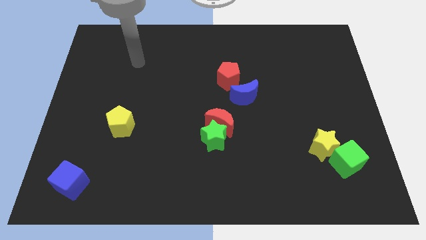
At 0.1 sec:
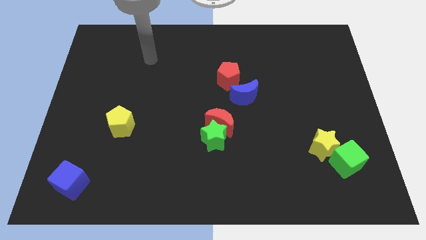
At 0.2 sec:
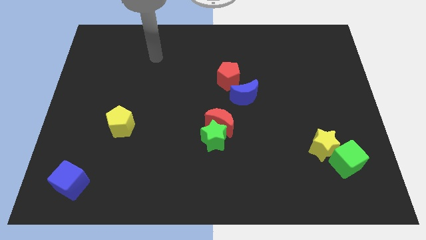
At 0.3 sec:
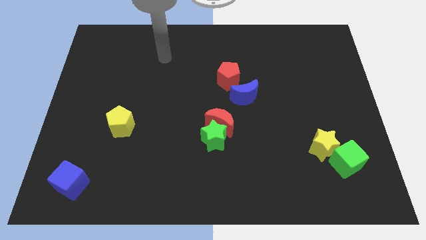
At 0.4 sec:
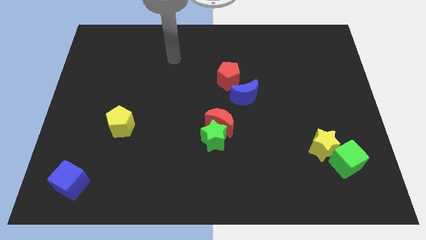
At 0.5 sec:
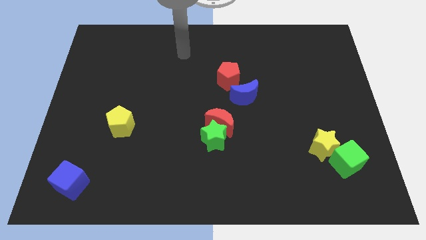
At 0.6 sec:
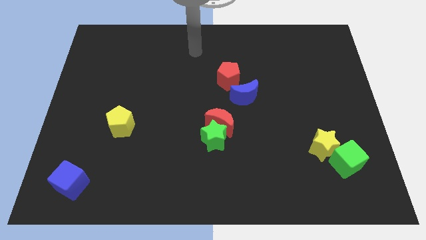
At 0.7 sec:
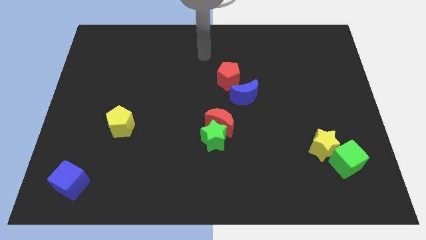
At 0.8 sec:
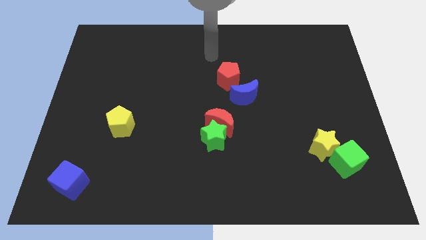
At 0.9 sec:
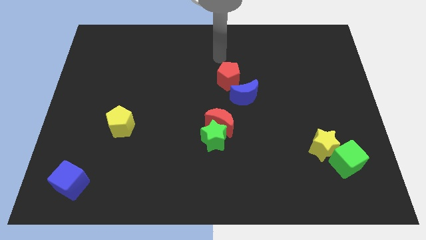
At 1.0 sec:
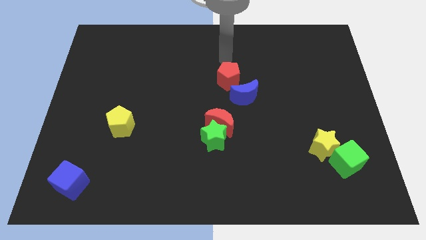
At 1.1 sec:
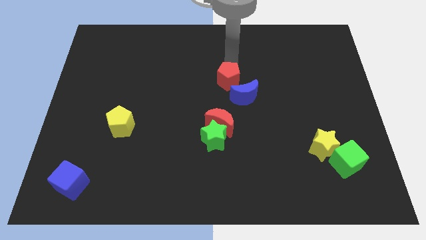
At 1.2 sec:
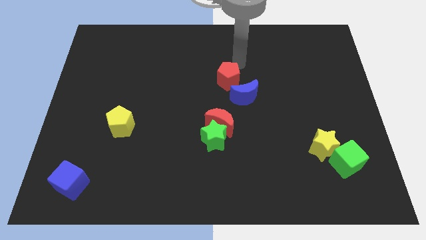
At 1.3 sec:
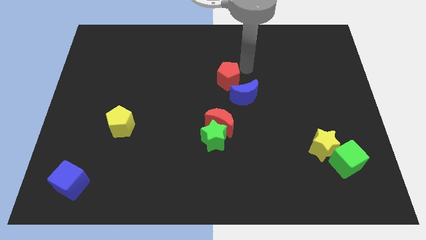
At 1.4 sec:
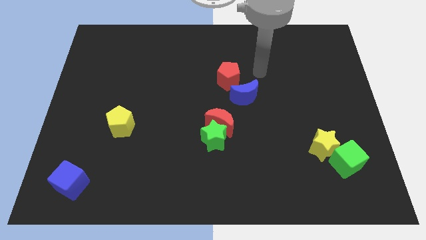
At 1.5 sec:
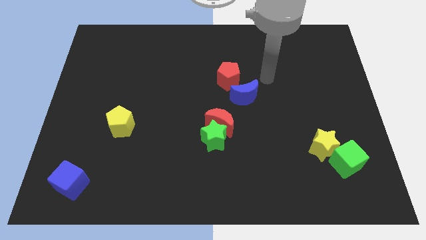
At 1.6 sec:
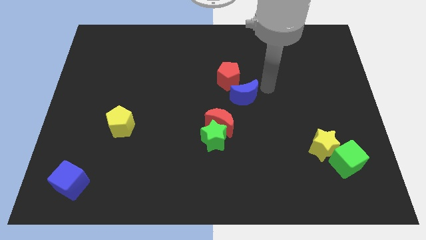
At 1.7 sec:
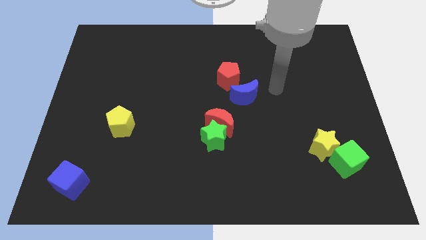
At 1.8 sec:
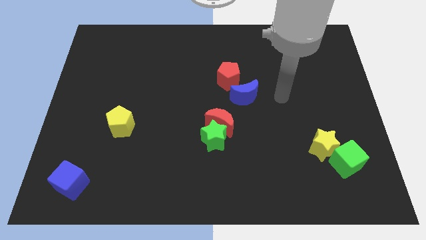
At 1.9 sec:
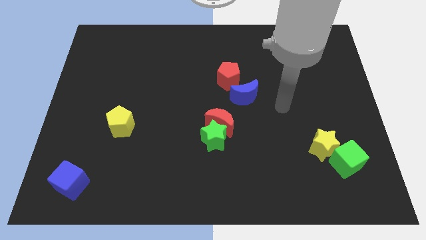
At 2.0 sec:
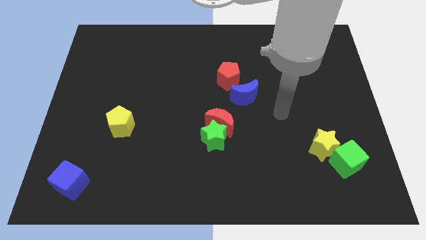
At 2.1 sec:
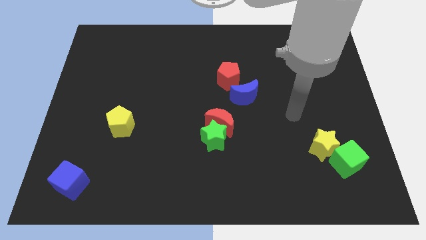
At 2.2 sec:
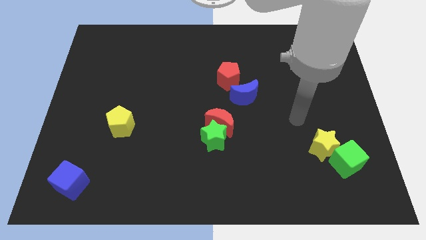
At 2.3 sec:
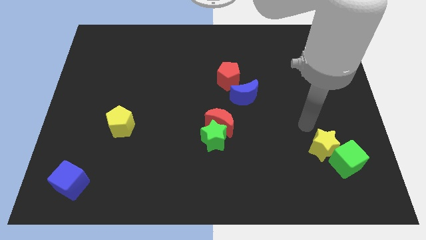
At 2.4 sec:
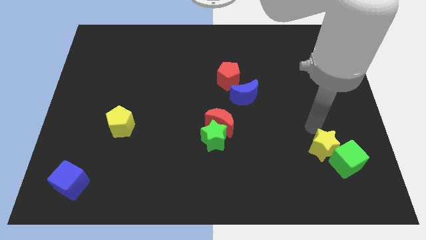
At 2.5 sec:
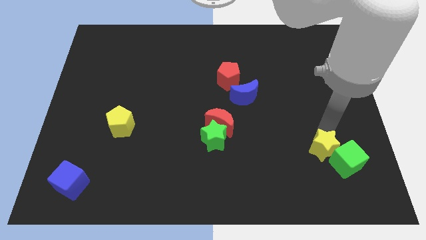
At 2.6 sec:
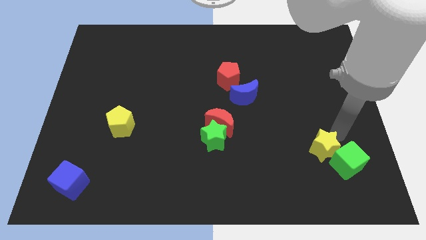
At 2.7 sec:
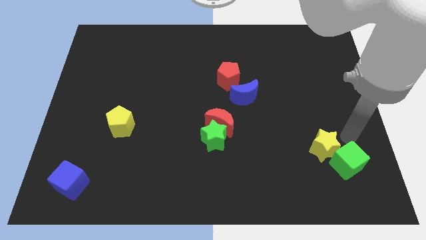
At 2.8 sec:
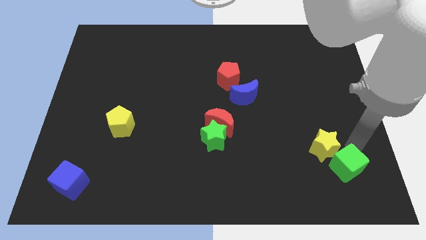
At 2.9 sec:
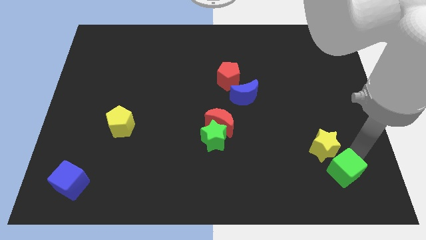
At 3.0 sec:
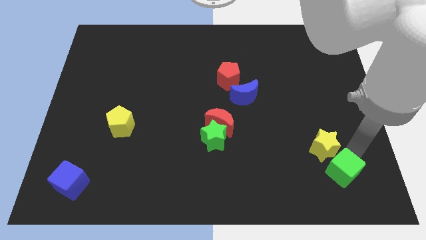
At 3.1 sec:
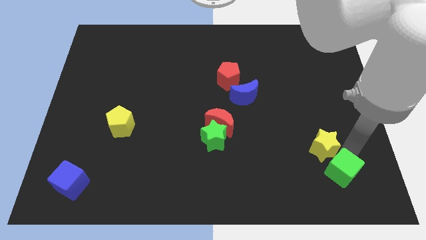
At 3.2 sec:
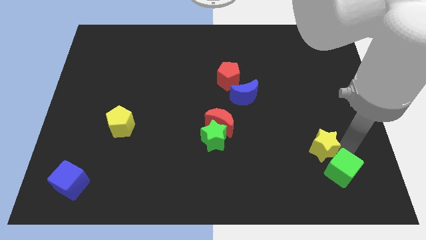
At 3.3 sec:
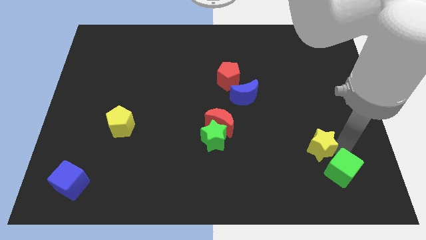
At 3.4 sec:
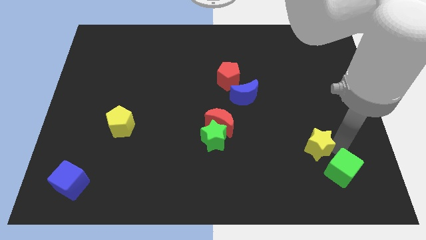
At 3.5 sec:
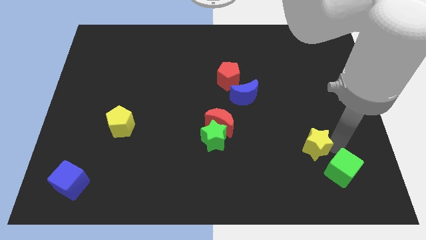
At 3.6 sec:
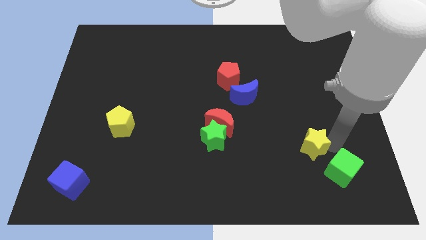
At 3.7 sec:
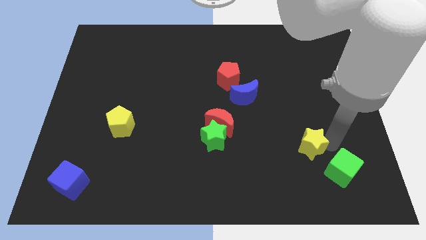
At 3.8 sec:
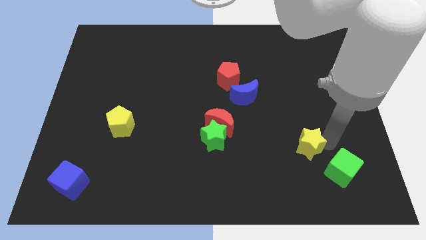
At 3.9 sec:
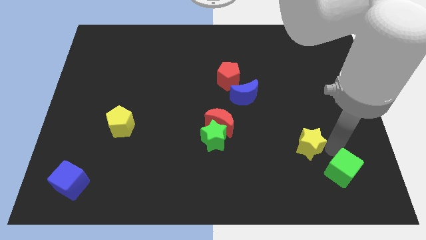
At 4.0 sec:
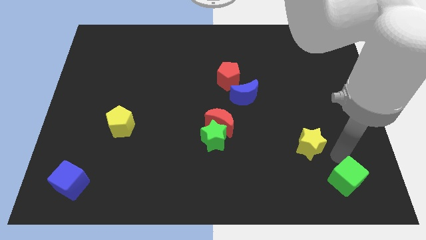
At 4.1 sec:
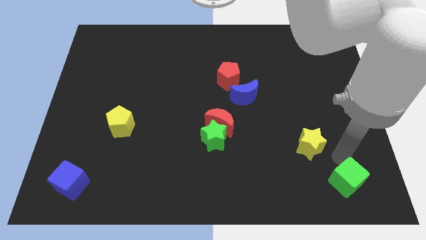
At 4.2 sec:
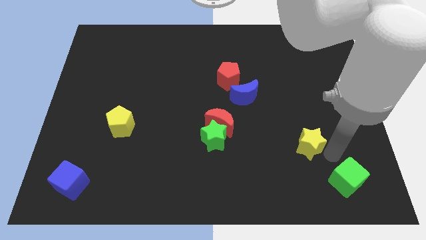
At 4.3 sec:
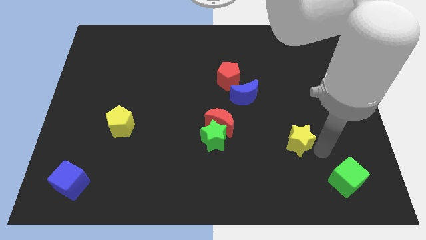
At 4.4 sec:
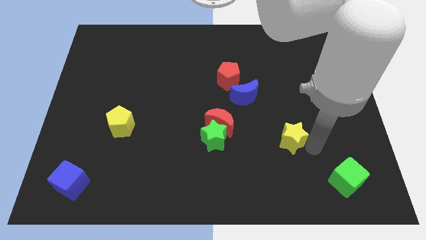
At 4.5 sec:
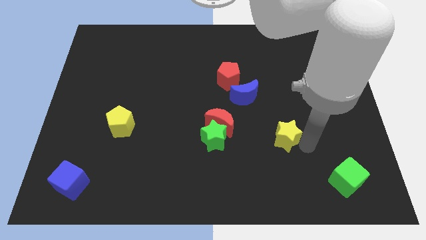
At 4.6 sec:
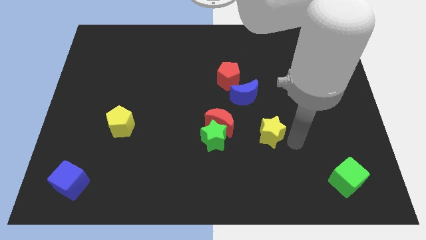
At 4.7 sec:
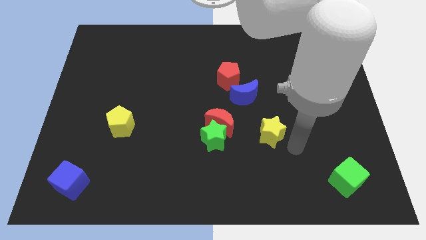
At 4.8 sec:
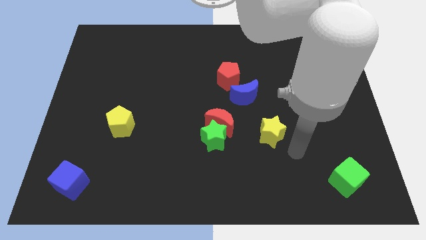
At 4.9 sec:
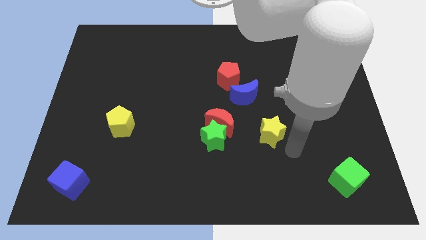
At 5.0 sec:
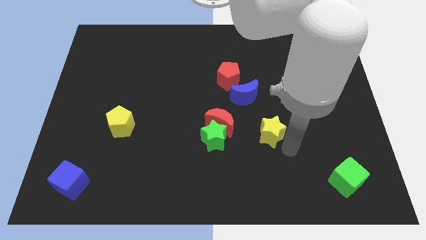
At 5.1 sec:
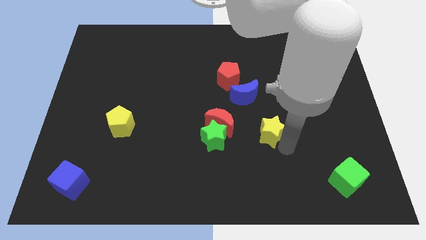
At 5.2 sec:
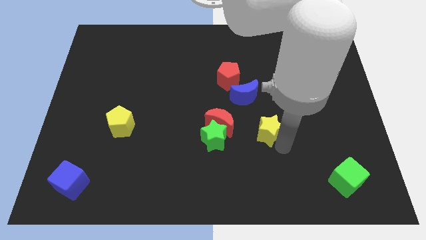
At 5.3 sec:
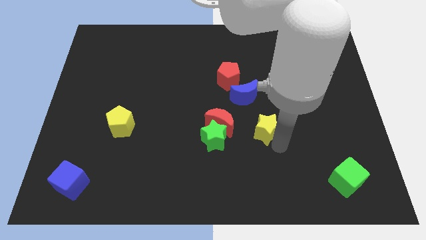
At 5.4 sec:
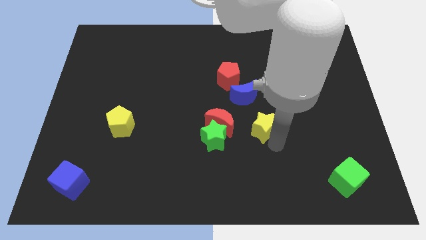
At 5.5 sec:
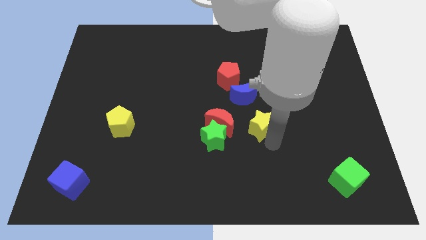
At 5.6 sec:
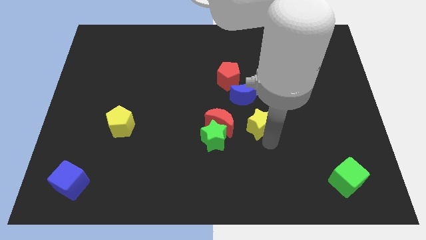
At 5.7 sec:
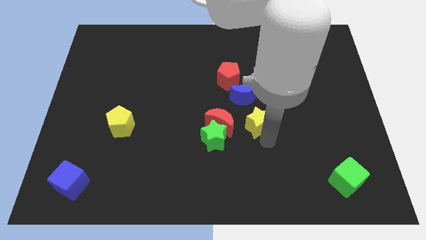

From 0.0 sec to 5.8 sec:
slide the yellow star to the center of the board
